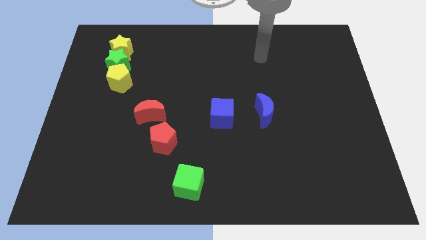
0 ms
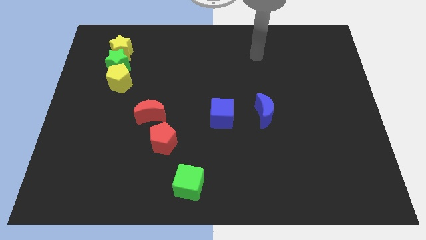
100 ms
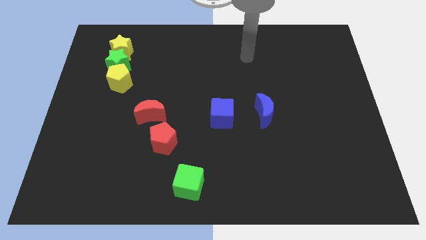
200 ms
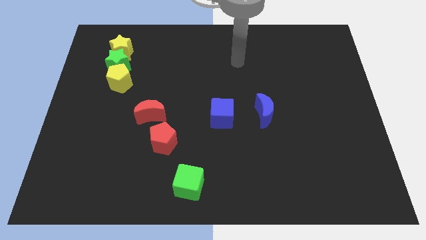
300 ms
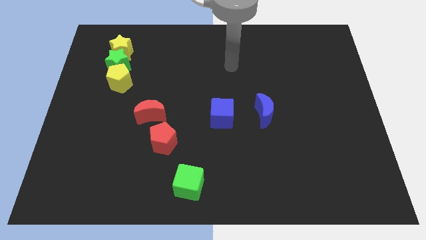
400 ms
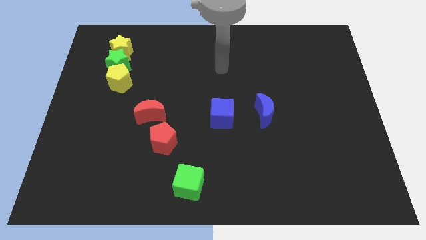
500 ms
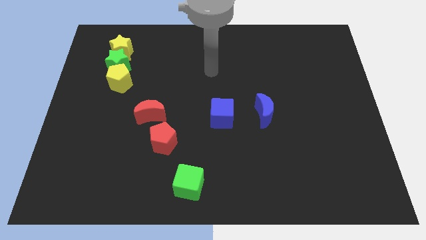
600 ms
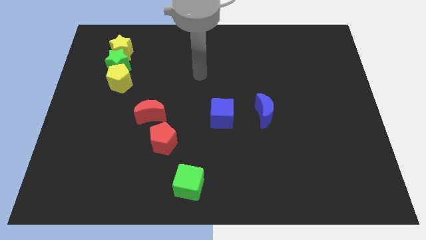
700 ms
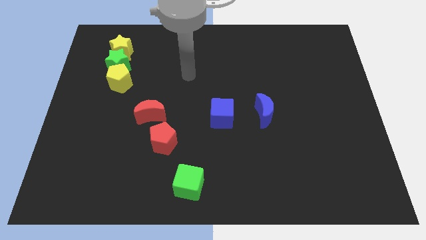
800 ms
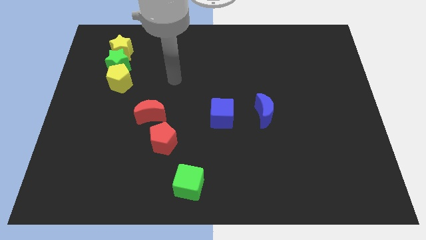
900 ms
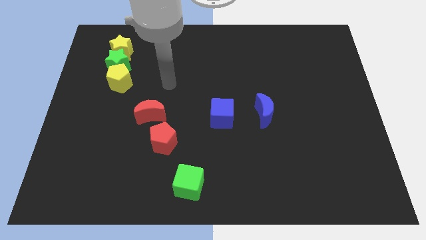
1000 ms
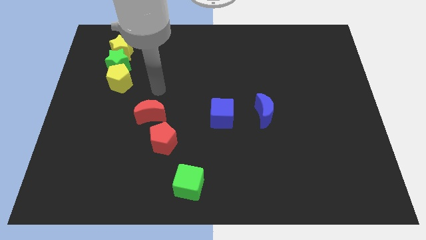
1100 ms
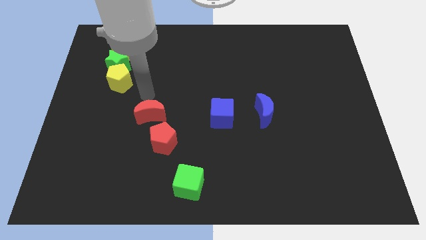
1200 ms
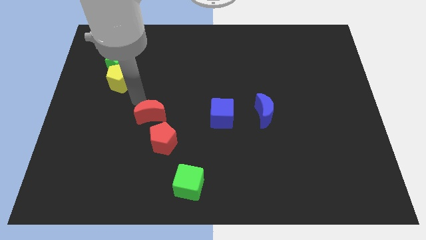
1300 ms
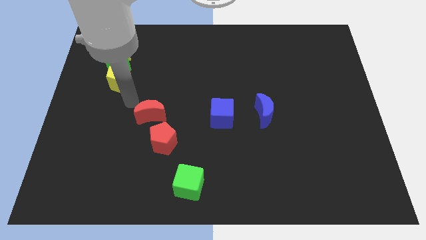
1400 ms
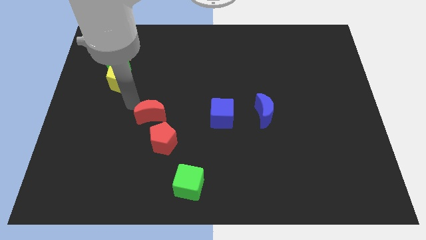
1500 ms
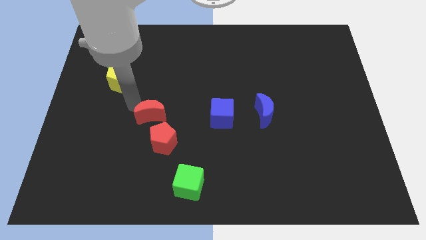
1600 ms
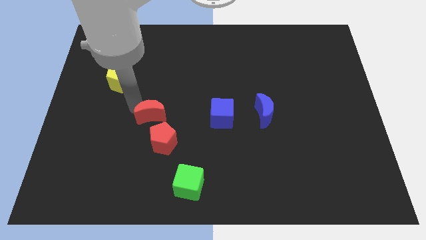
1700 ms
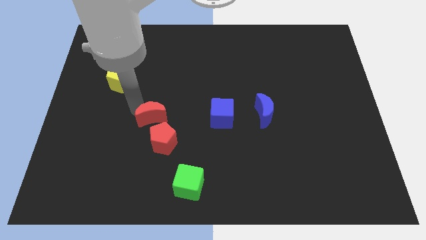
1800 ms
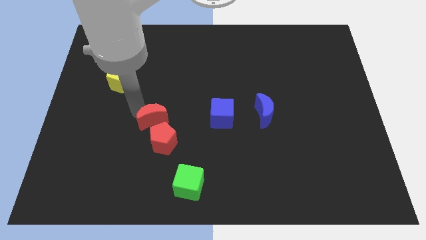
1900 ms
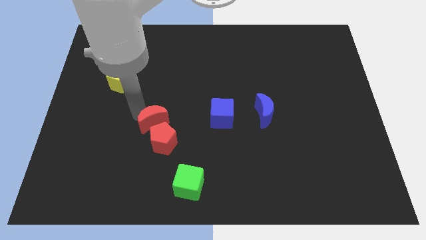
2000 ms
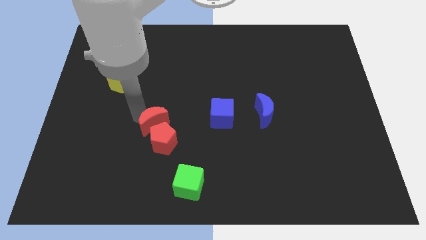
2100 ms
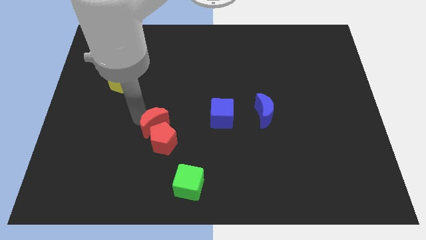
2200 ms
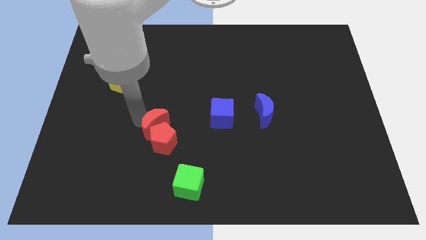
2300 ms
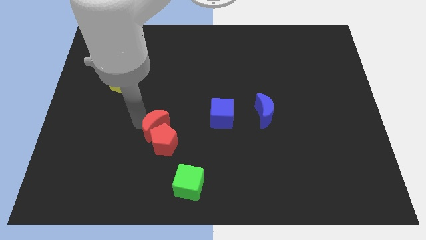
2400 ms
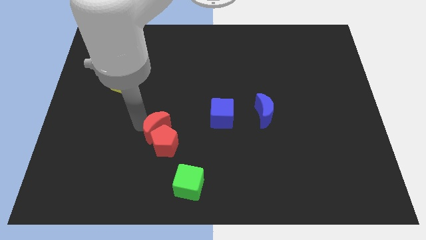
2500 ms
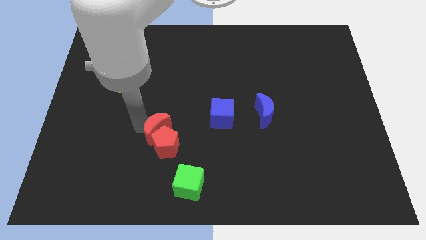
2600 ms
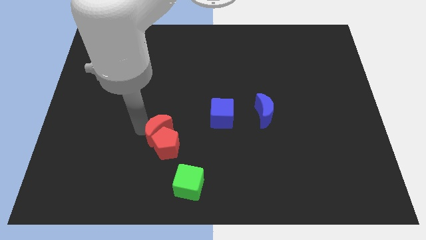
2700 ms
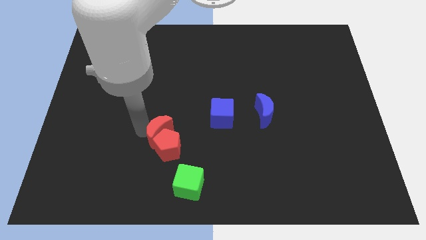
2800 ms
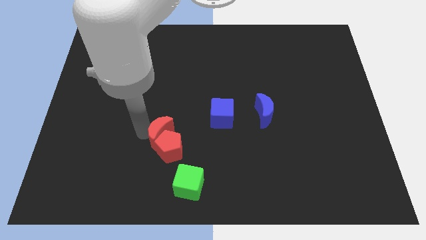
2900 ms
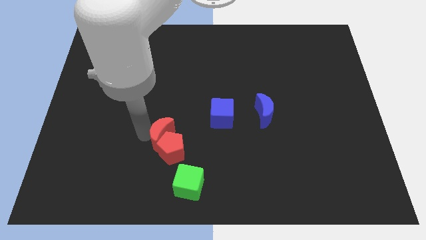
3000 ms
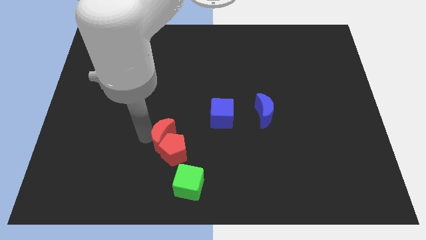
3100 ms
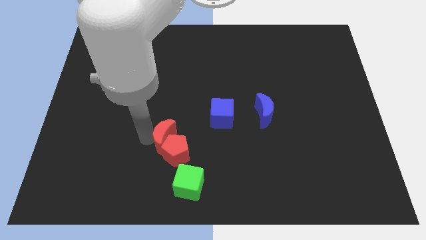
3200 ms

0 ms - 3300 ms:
push the red moon down and then to the right a bit

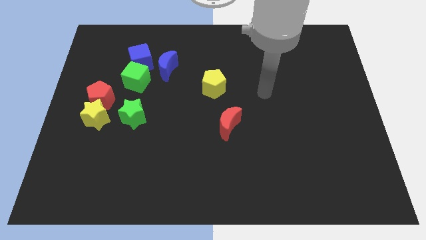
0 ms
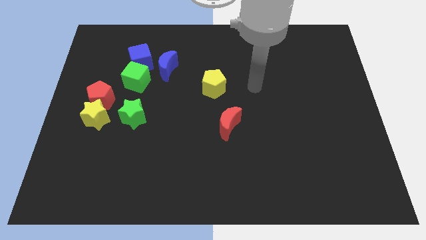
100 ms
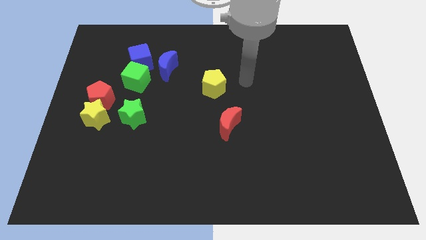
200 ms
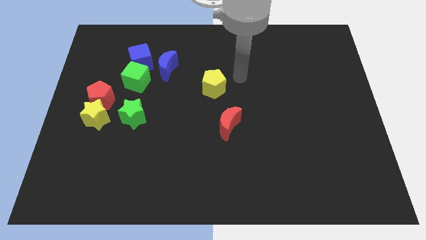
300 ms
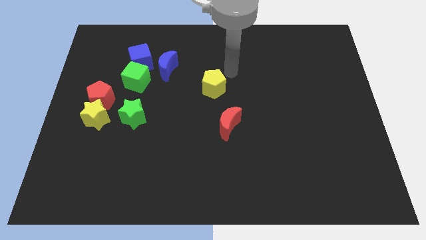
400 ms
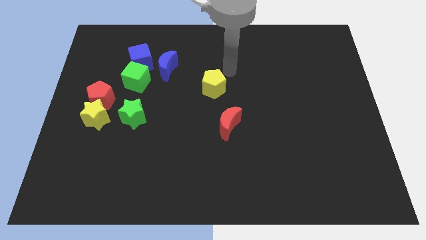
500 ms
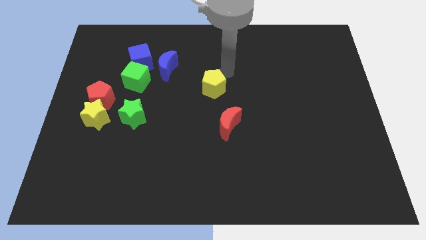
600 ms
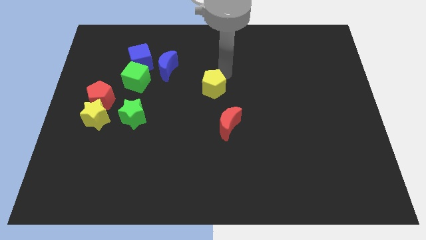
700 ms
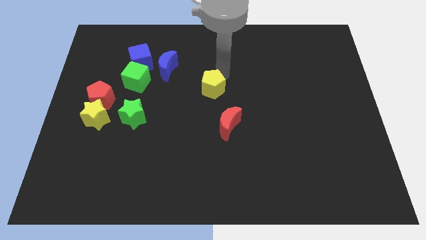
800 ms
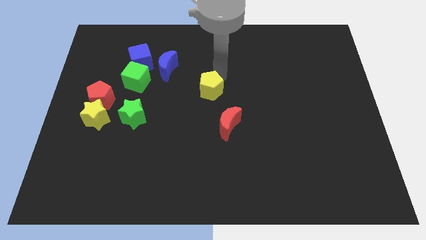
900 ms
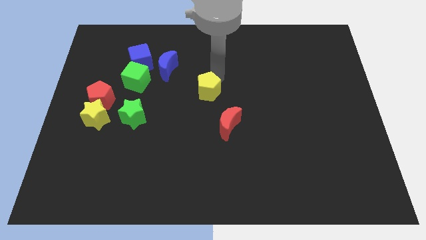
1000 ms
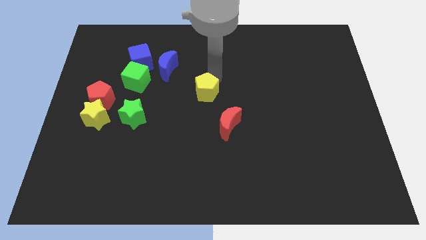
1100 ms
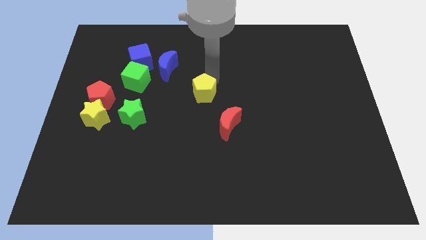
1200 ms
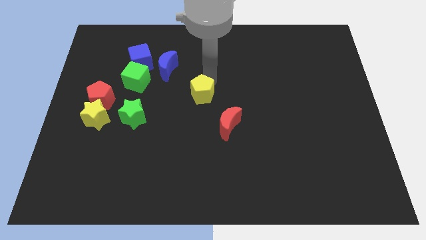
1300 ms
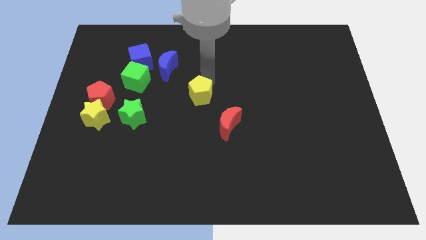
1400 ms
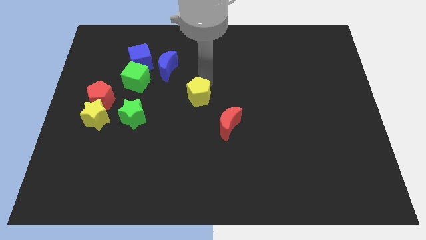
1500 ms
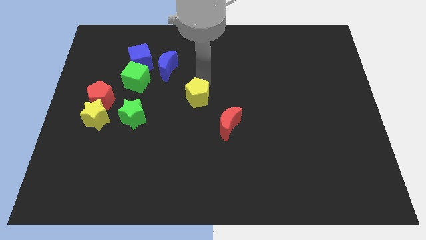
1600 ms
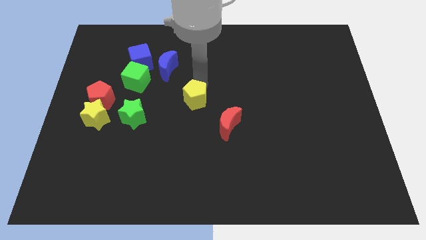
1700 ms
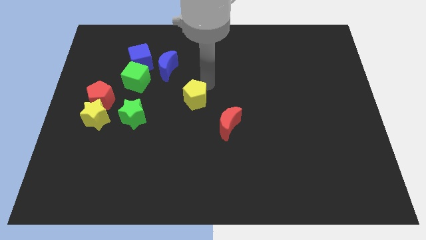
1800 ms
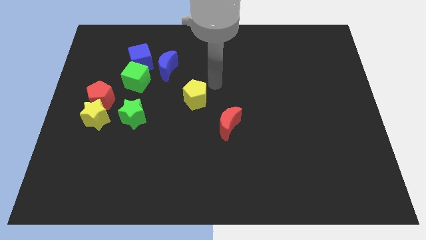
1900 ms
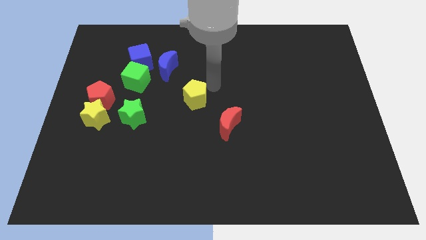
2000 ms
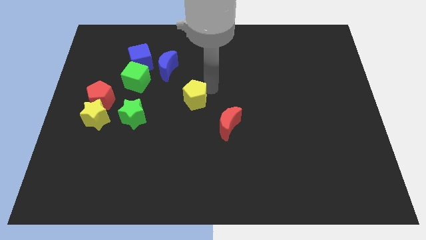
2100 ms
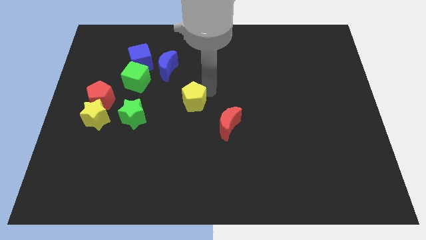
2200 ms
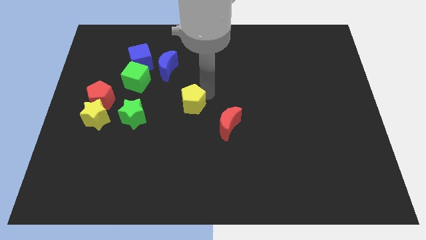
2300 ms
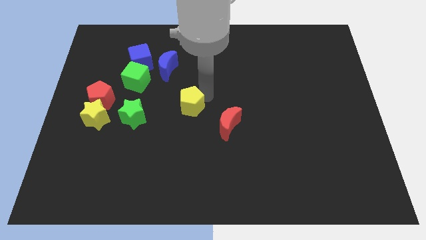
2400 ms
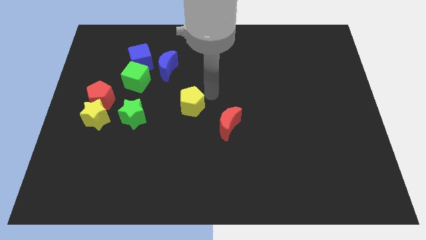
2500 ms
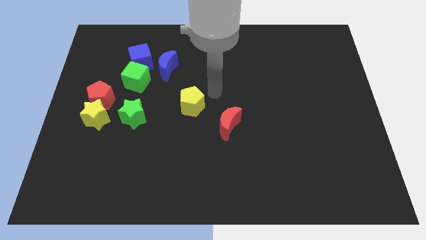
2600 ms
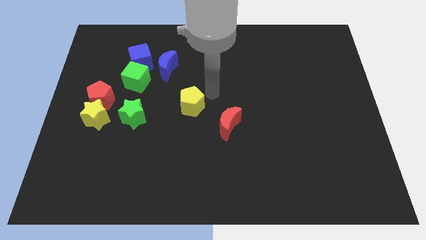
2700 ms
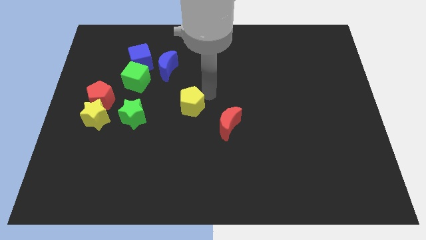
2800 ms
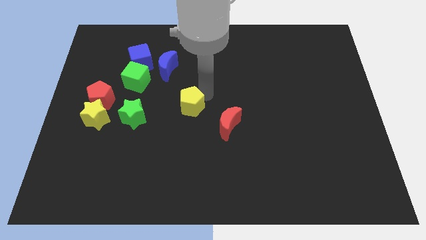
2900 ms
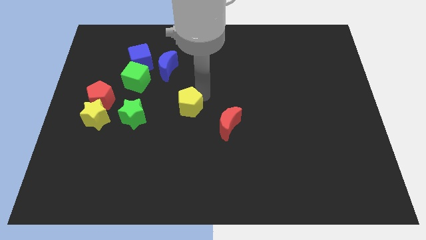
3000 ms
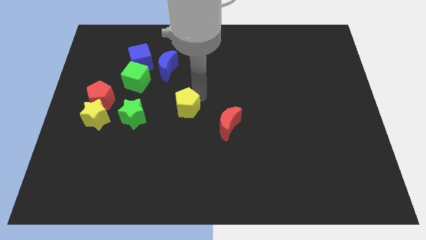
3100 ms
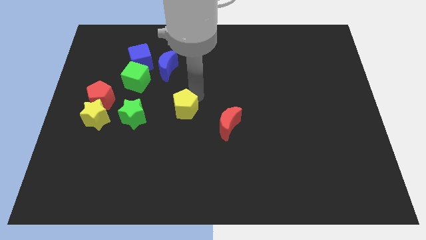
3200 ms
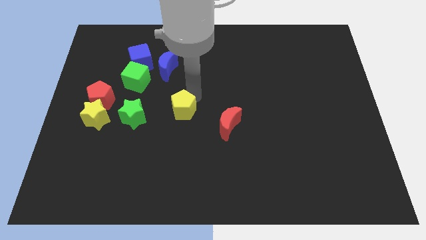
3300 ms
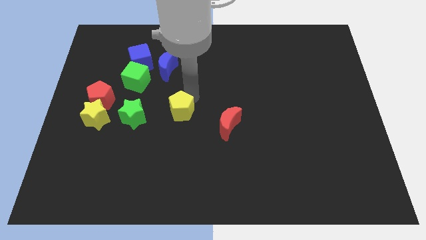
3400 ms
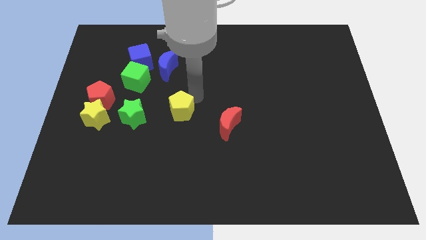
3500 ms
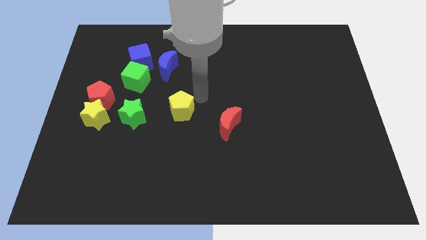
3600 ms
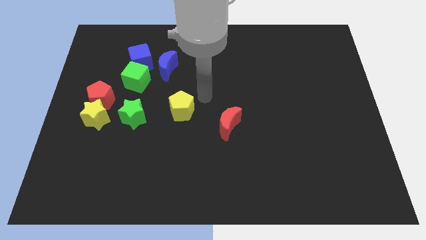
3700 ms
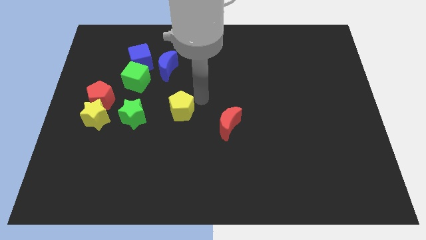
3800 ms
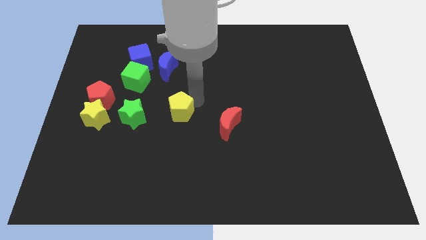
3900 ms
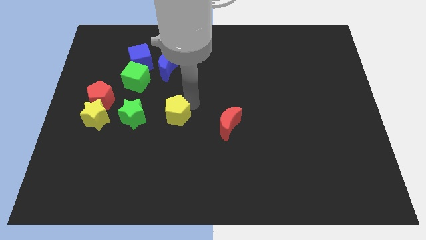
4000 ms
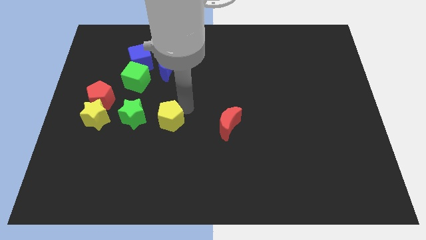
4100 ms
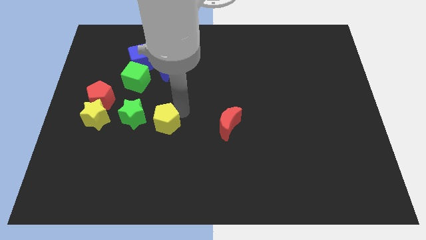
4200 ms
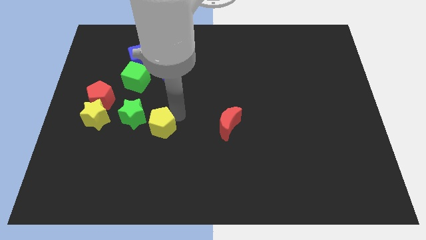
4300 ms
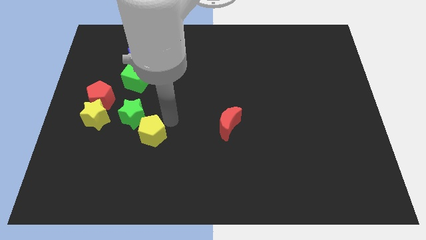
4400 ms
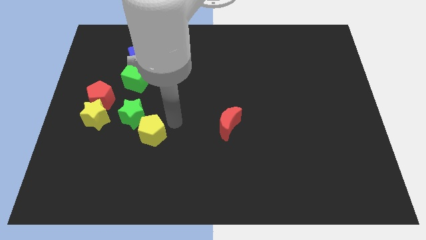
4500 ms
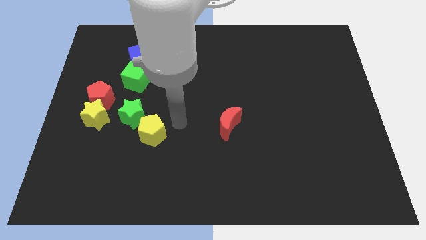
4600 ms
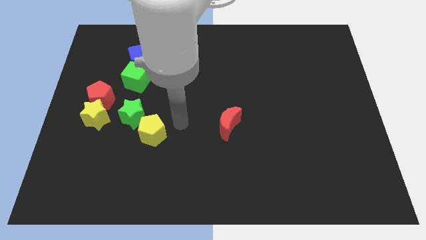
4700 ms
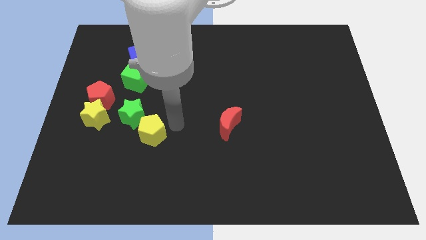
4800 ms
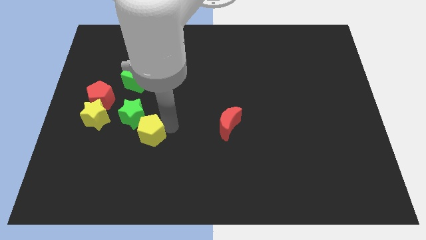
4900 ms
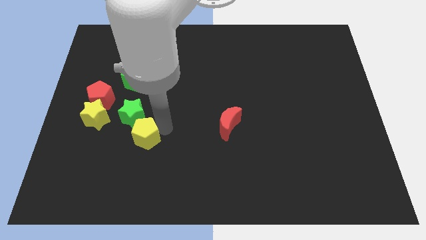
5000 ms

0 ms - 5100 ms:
slide the yellow pentagon down and to the left diagonally
